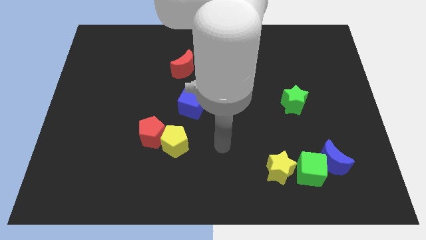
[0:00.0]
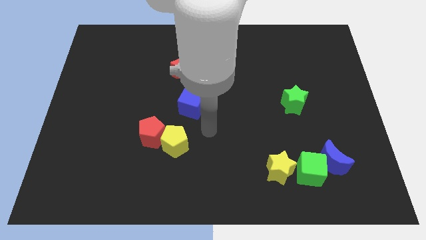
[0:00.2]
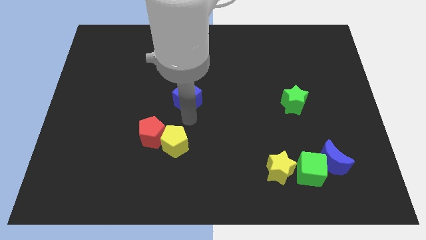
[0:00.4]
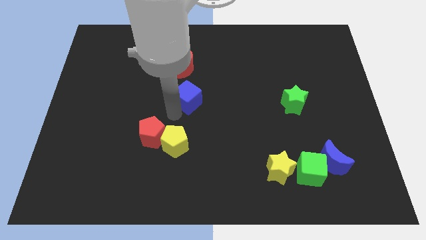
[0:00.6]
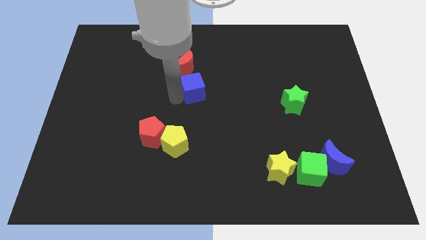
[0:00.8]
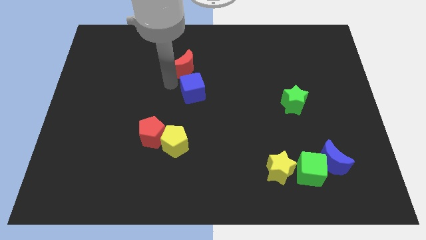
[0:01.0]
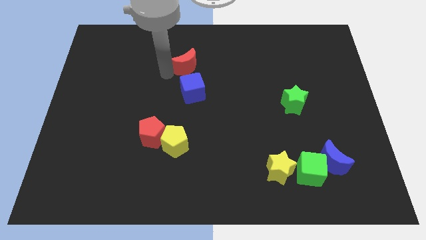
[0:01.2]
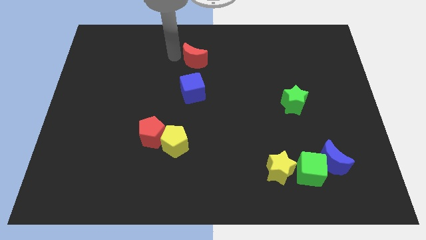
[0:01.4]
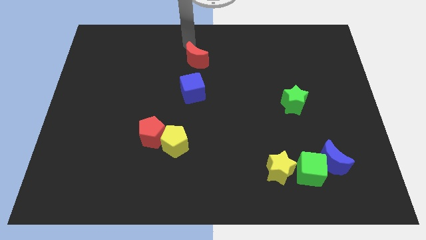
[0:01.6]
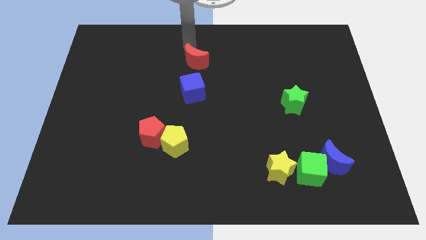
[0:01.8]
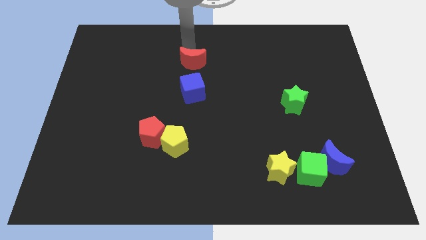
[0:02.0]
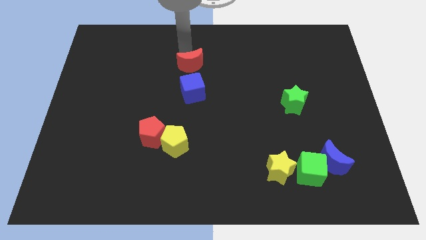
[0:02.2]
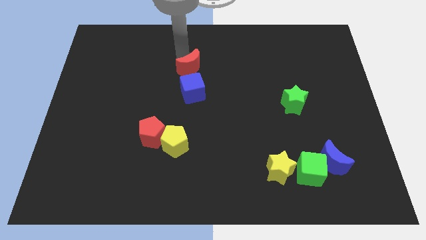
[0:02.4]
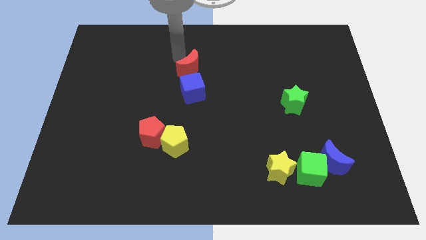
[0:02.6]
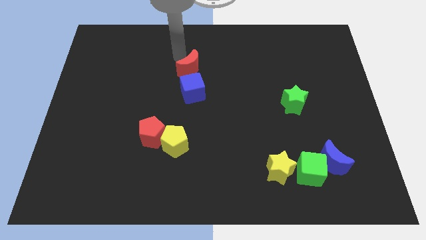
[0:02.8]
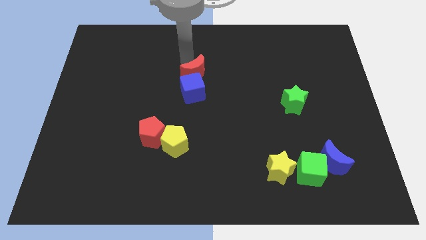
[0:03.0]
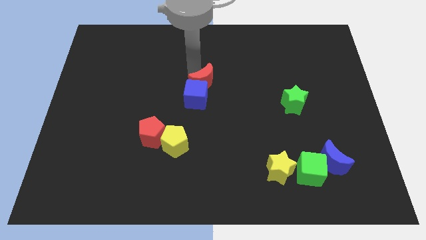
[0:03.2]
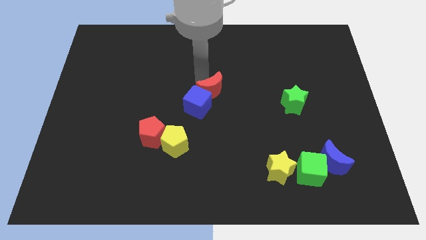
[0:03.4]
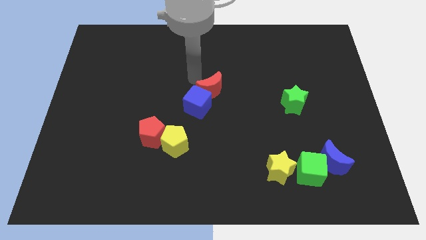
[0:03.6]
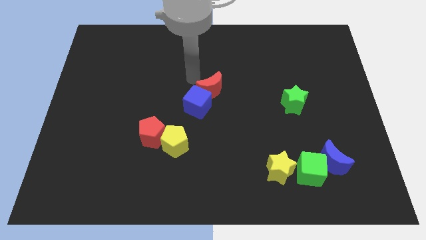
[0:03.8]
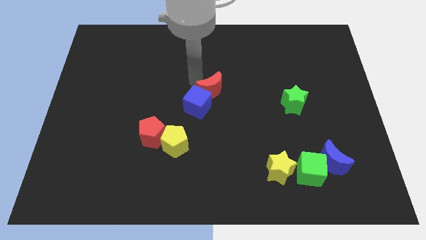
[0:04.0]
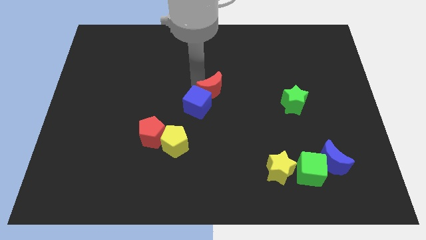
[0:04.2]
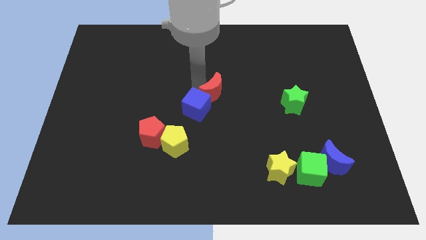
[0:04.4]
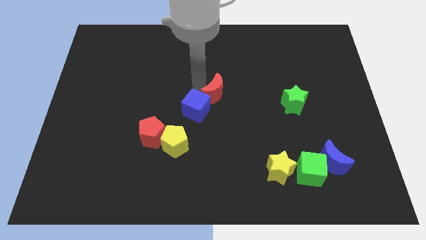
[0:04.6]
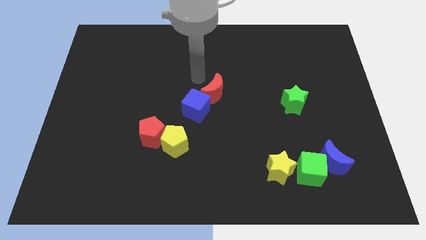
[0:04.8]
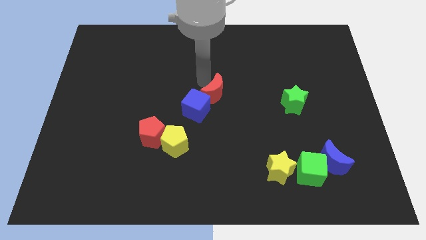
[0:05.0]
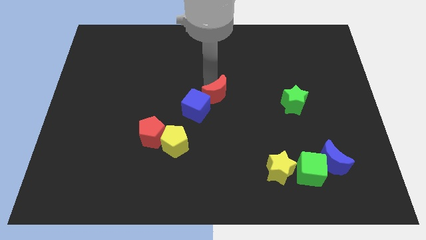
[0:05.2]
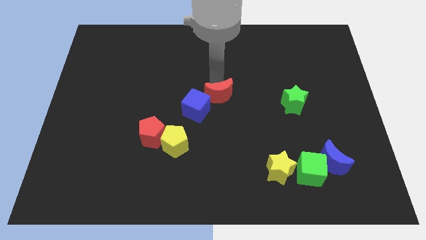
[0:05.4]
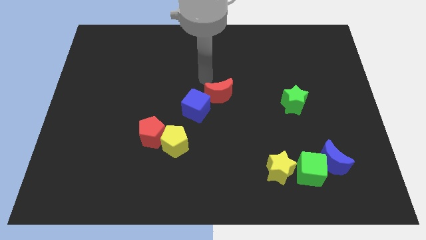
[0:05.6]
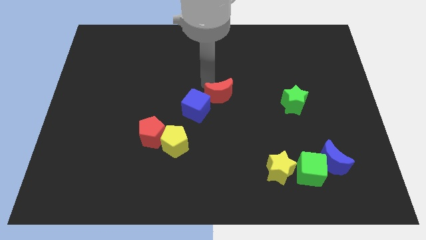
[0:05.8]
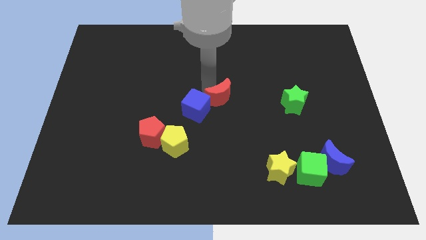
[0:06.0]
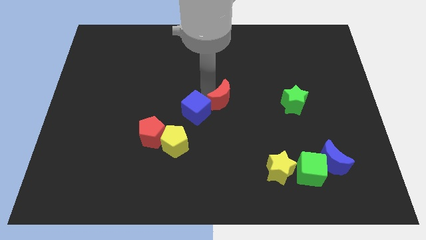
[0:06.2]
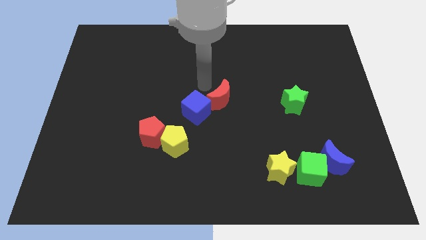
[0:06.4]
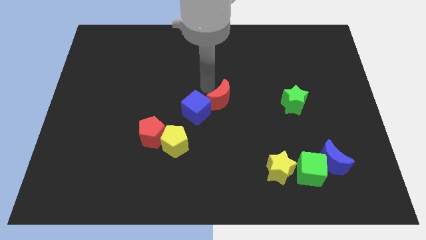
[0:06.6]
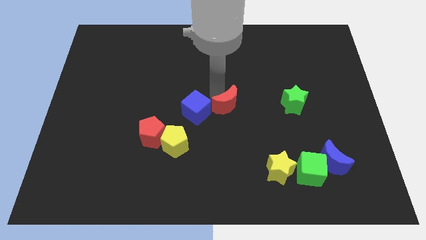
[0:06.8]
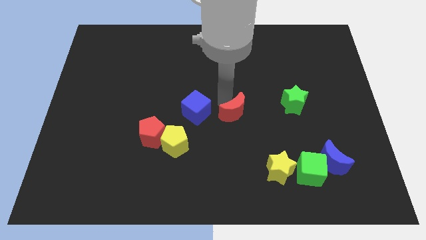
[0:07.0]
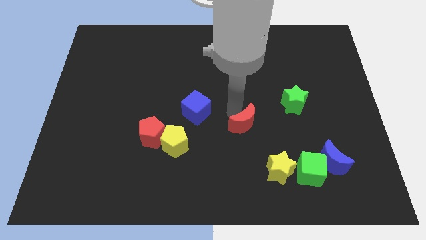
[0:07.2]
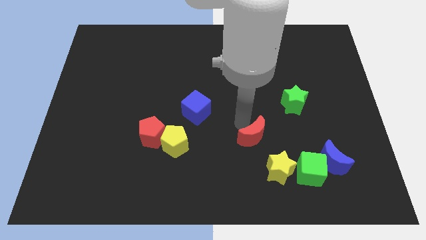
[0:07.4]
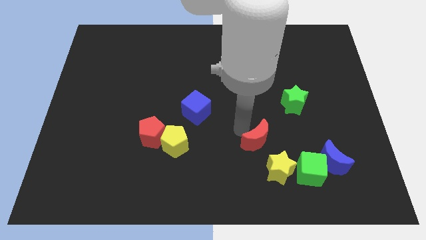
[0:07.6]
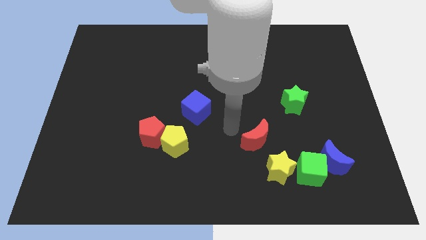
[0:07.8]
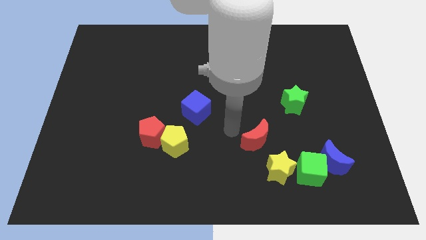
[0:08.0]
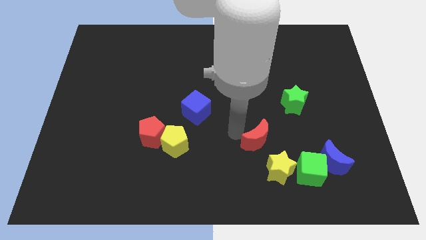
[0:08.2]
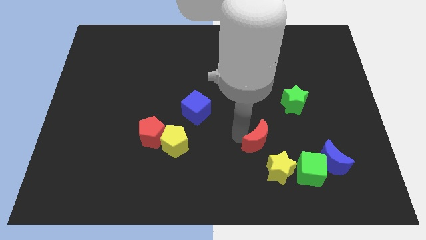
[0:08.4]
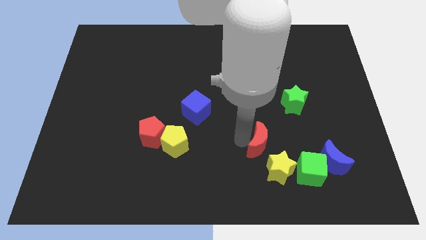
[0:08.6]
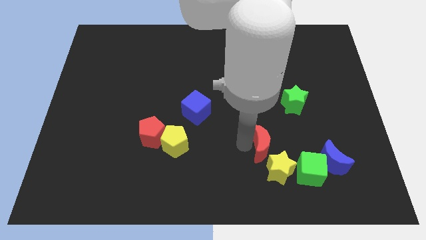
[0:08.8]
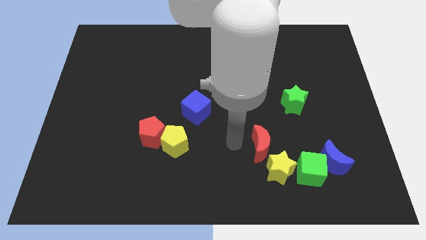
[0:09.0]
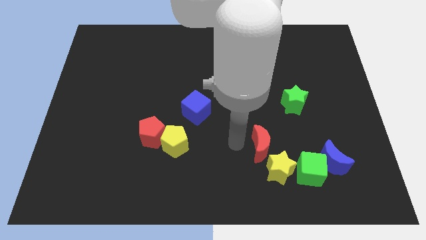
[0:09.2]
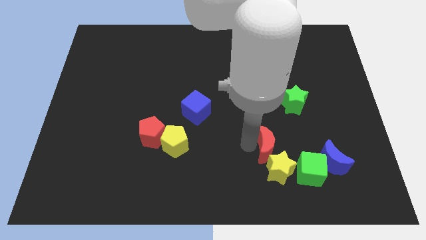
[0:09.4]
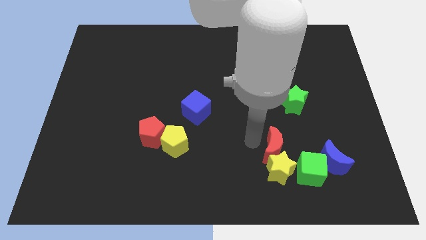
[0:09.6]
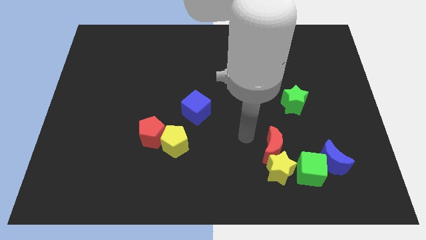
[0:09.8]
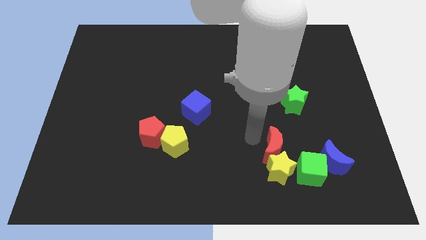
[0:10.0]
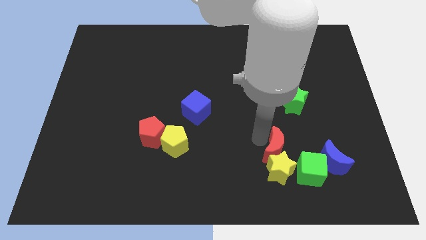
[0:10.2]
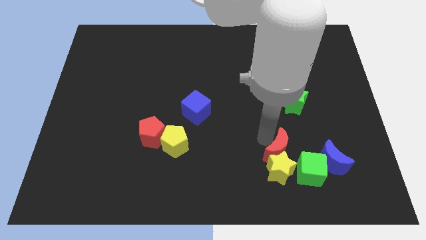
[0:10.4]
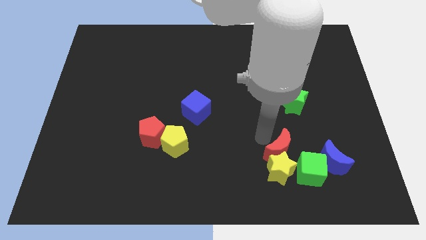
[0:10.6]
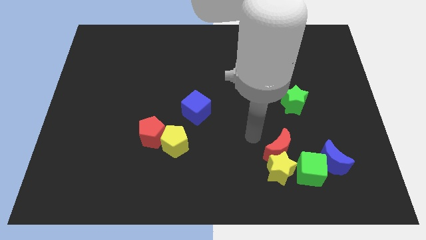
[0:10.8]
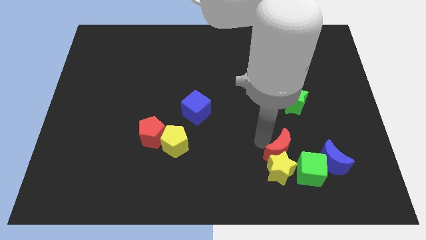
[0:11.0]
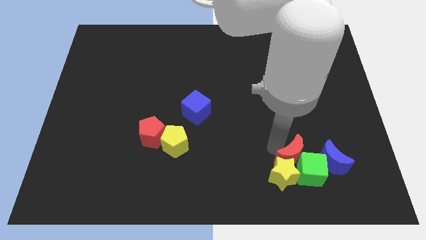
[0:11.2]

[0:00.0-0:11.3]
move the red moon next to the green cube
